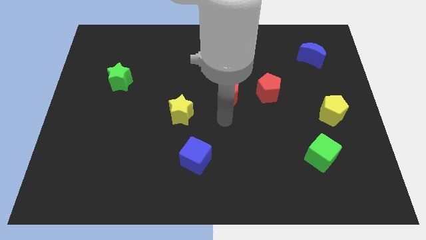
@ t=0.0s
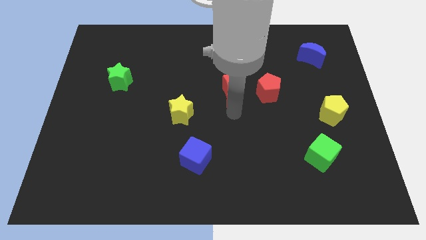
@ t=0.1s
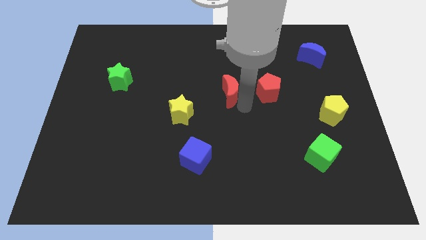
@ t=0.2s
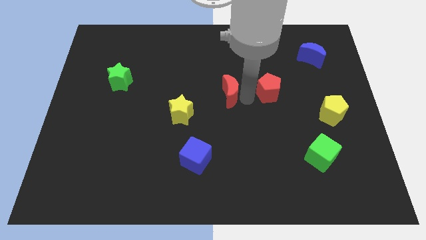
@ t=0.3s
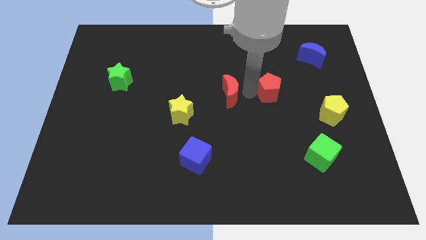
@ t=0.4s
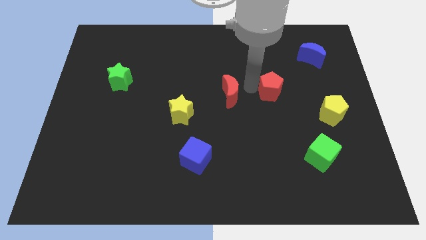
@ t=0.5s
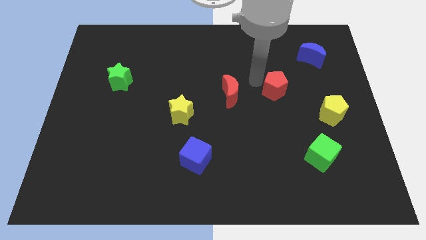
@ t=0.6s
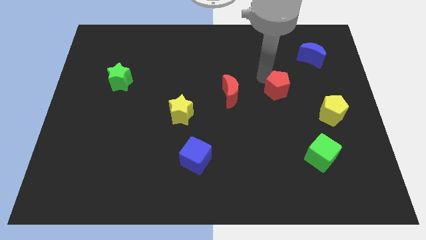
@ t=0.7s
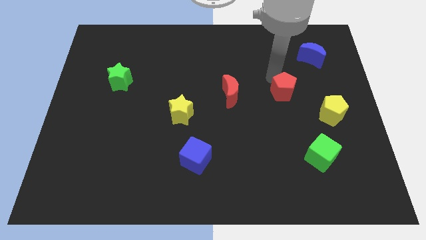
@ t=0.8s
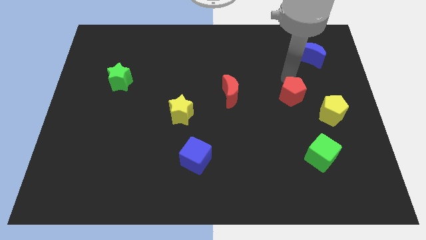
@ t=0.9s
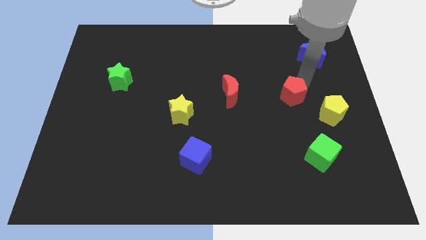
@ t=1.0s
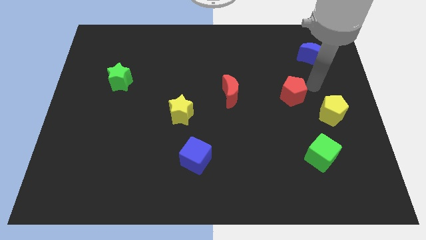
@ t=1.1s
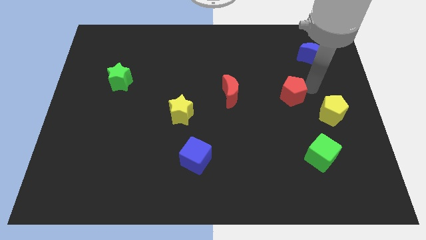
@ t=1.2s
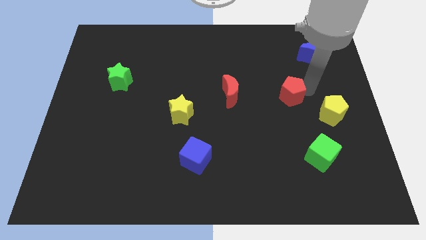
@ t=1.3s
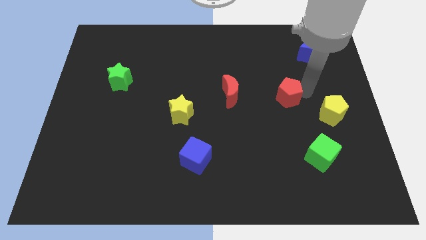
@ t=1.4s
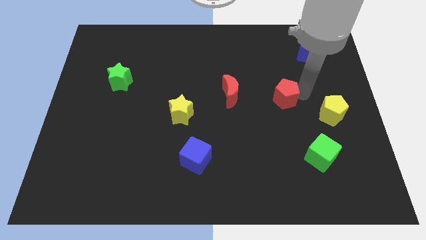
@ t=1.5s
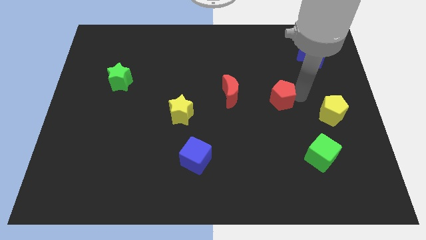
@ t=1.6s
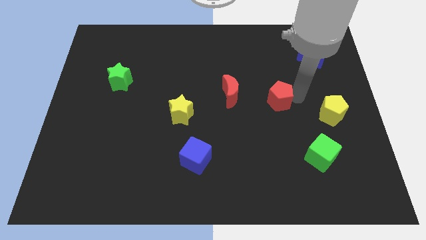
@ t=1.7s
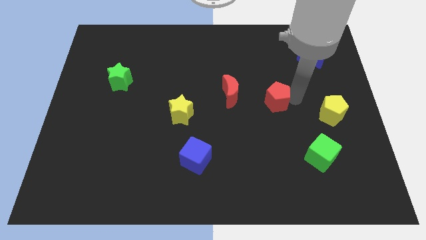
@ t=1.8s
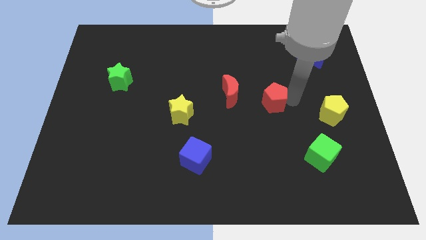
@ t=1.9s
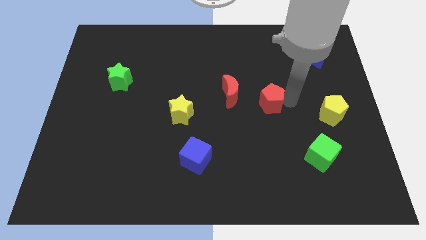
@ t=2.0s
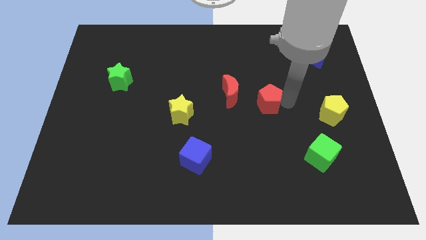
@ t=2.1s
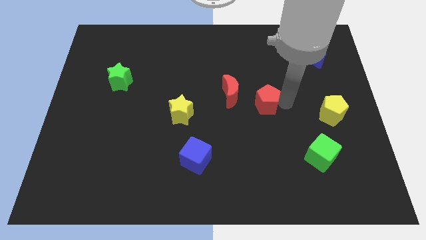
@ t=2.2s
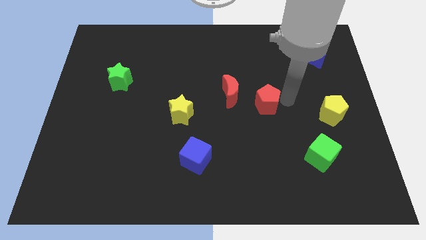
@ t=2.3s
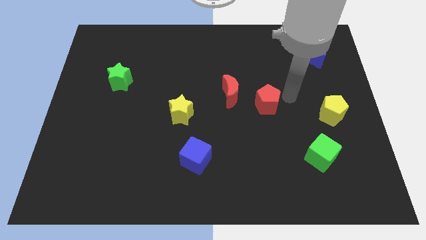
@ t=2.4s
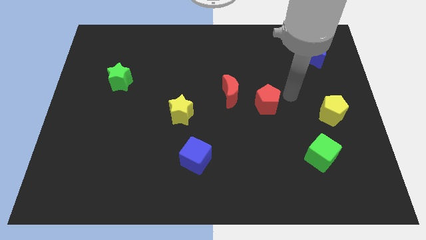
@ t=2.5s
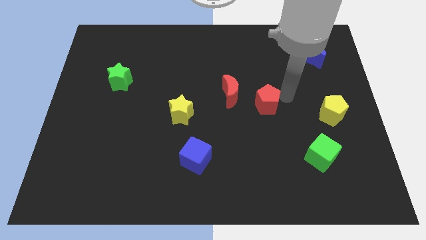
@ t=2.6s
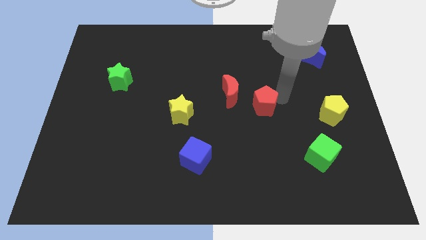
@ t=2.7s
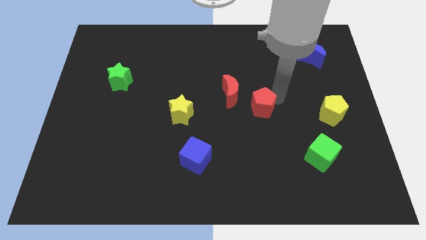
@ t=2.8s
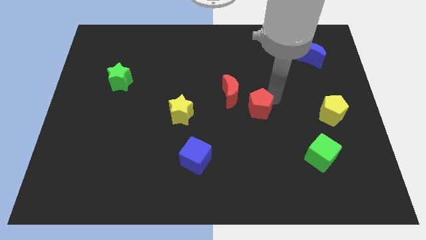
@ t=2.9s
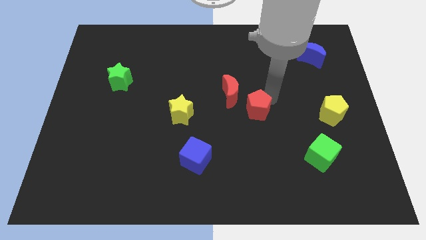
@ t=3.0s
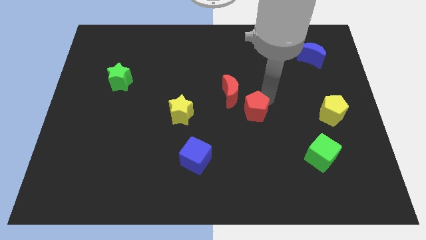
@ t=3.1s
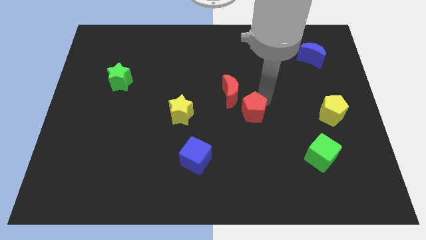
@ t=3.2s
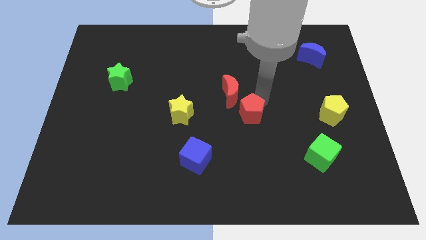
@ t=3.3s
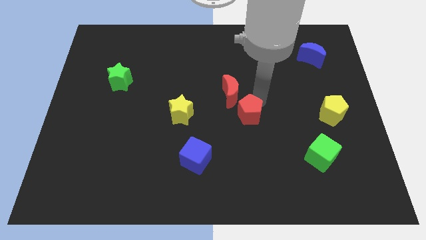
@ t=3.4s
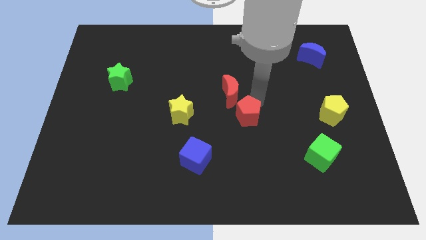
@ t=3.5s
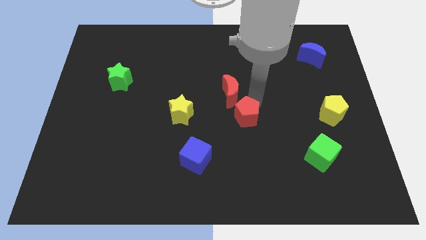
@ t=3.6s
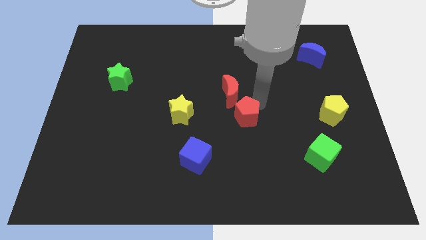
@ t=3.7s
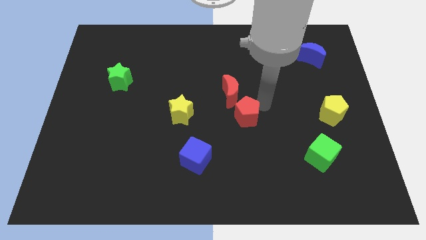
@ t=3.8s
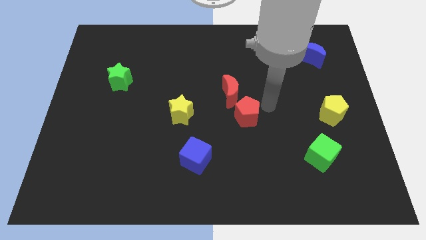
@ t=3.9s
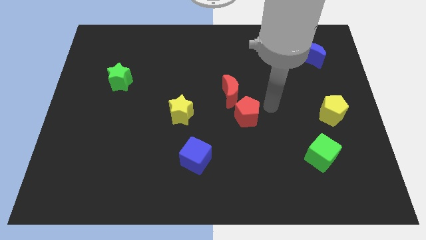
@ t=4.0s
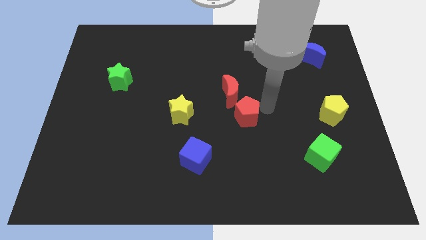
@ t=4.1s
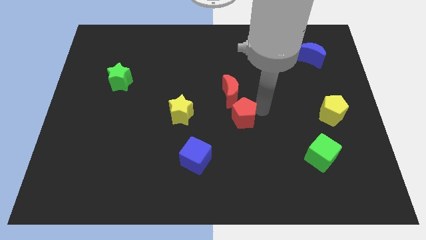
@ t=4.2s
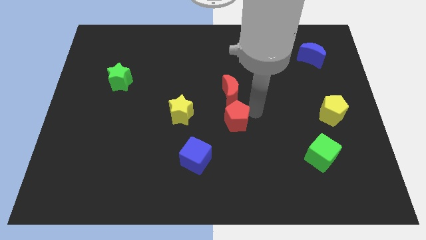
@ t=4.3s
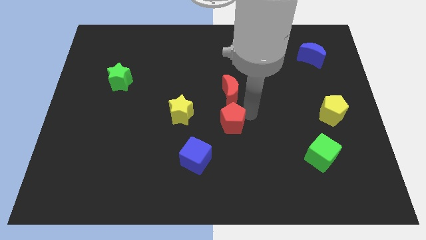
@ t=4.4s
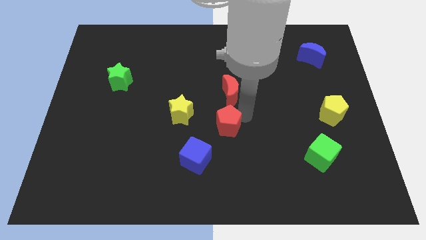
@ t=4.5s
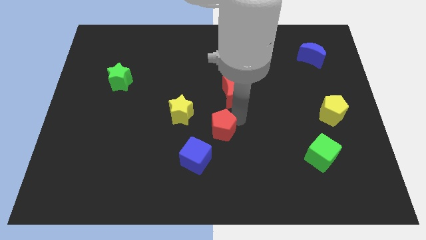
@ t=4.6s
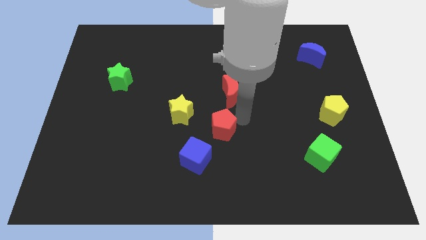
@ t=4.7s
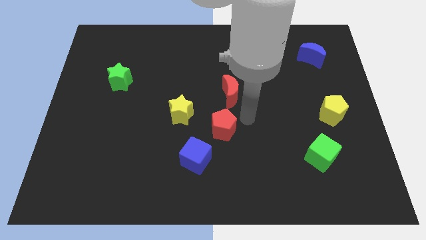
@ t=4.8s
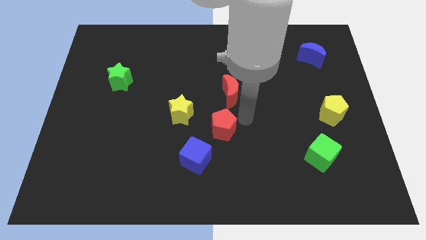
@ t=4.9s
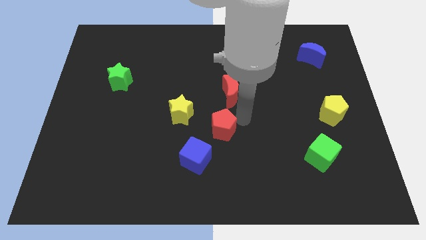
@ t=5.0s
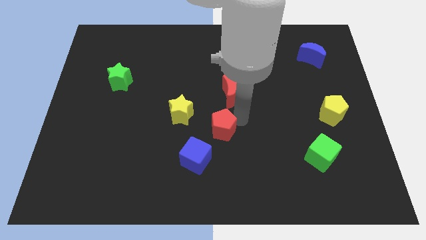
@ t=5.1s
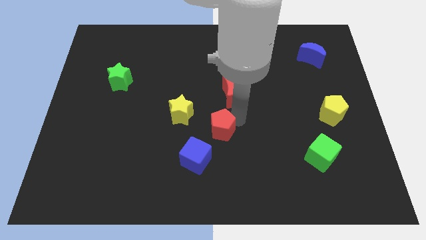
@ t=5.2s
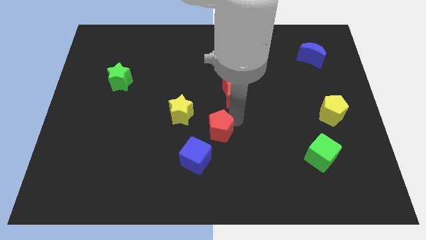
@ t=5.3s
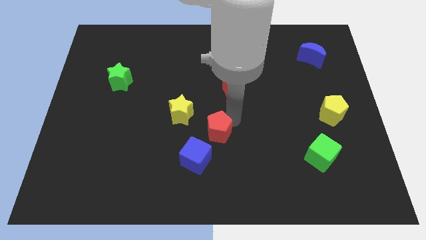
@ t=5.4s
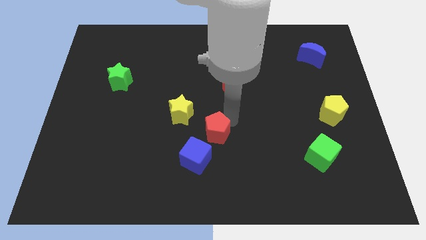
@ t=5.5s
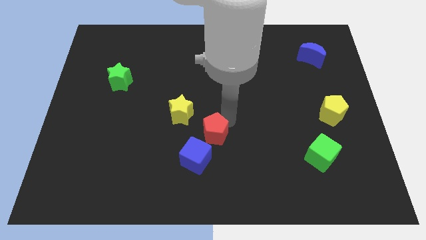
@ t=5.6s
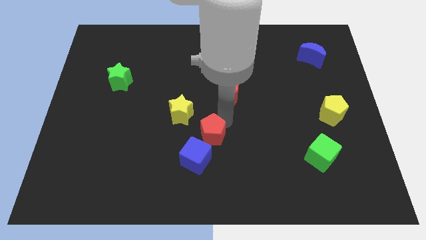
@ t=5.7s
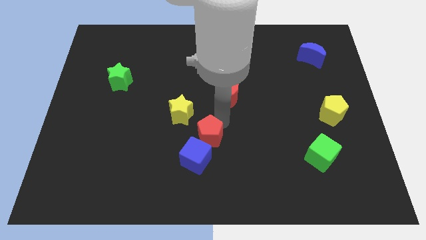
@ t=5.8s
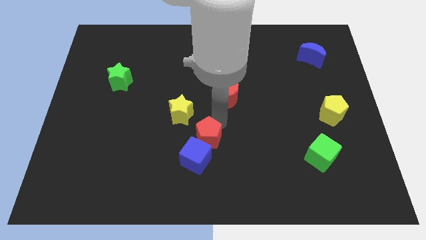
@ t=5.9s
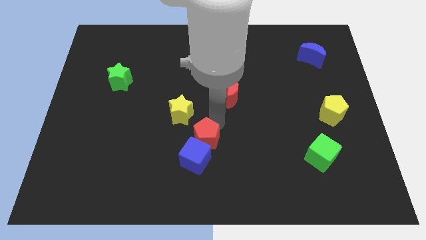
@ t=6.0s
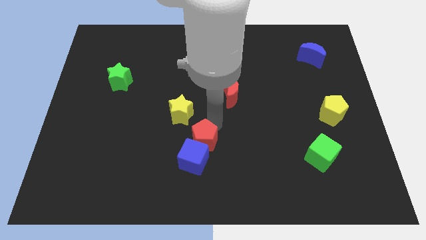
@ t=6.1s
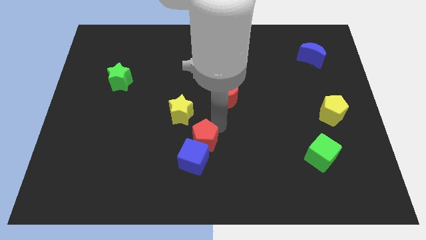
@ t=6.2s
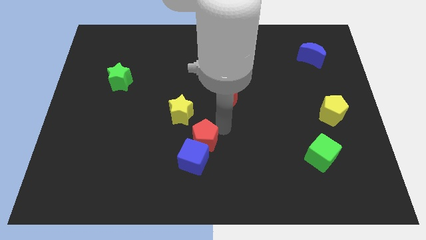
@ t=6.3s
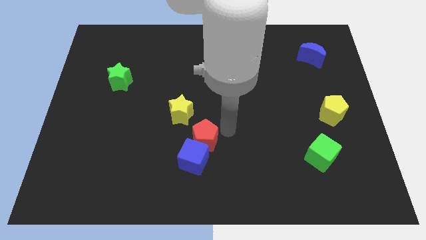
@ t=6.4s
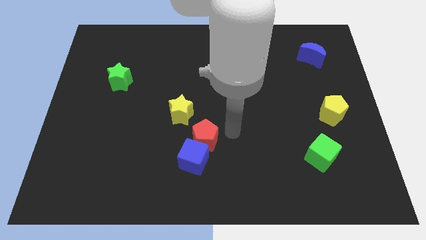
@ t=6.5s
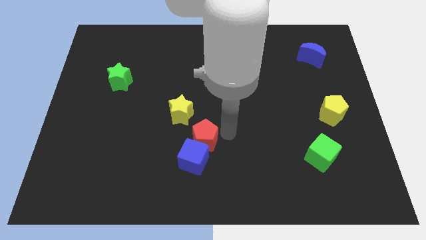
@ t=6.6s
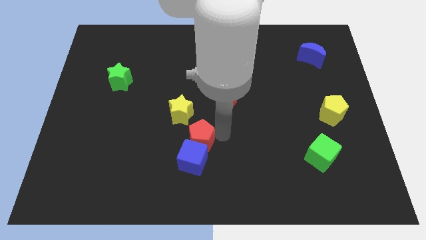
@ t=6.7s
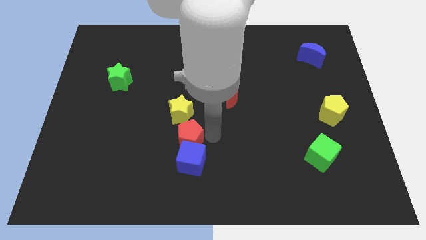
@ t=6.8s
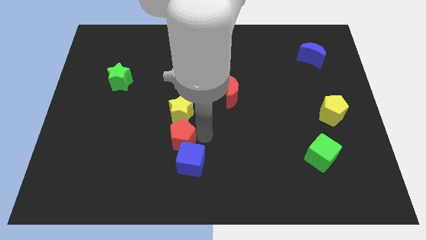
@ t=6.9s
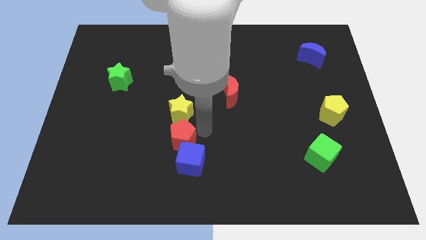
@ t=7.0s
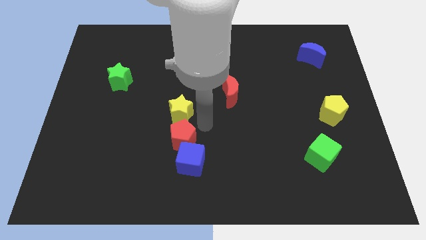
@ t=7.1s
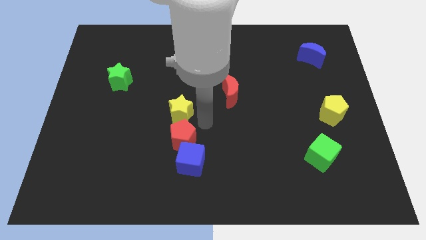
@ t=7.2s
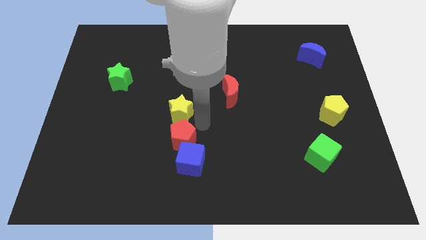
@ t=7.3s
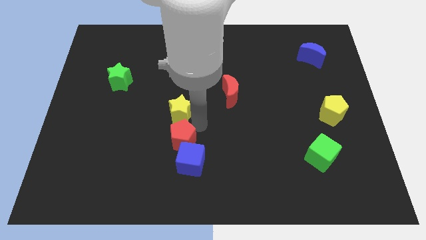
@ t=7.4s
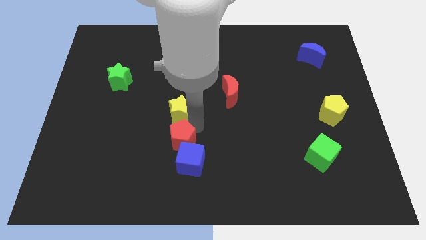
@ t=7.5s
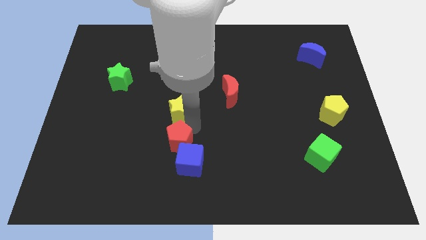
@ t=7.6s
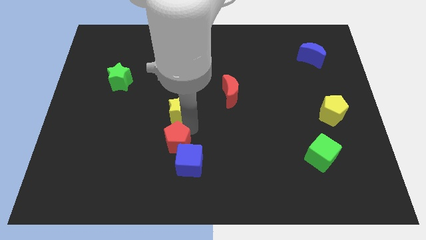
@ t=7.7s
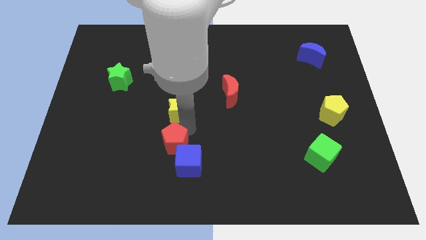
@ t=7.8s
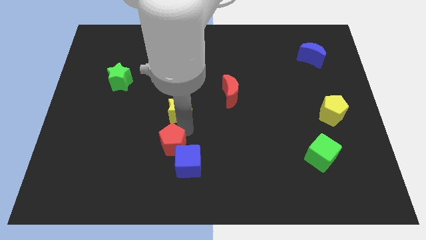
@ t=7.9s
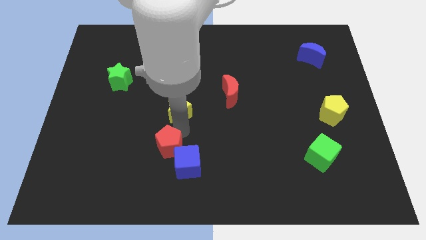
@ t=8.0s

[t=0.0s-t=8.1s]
slide the red pentagon to the left side of the blue cube
